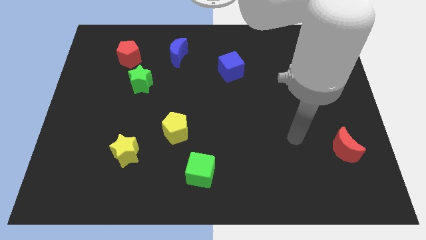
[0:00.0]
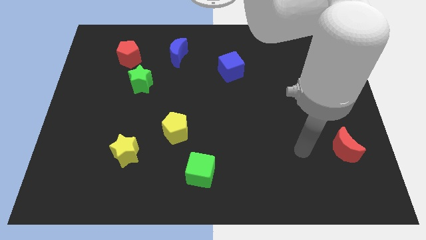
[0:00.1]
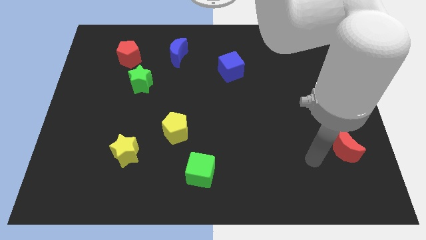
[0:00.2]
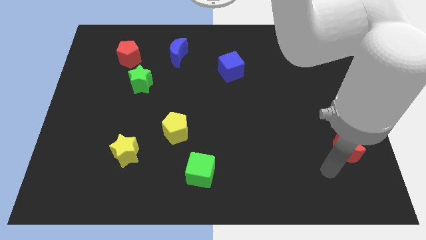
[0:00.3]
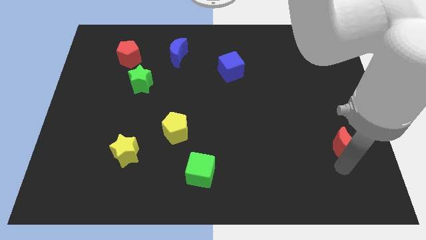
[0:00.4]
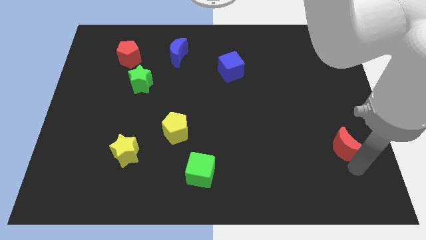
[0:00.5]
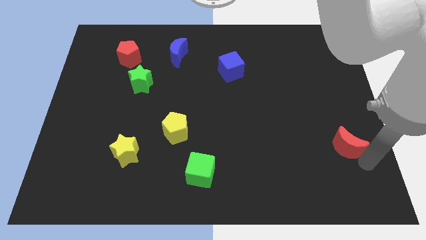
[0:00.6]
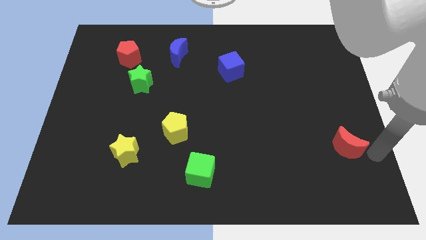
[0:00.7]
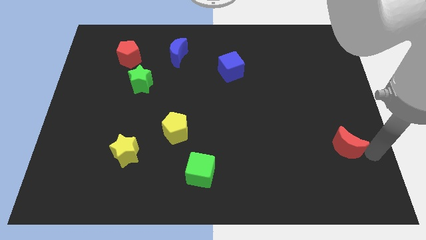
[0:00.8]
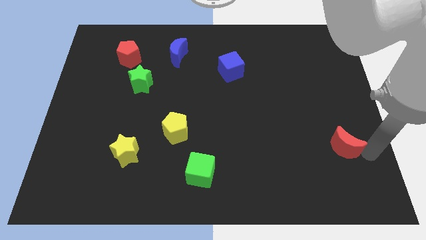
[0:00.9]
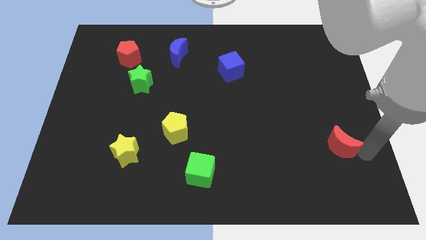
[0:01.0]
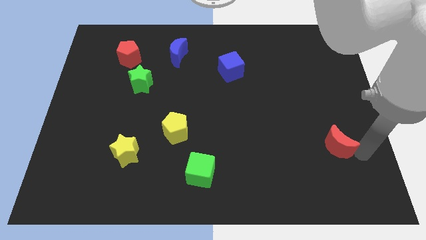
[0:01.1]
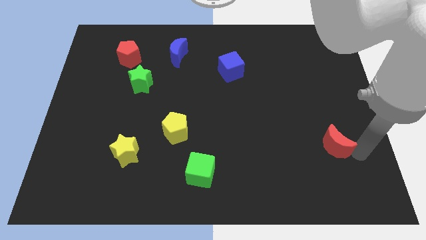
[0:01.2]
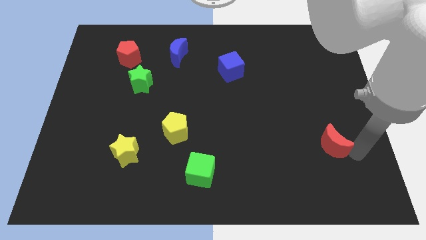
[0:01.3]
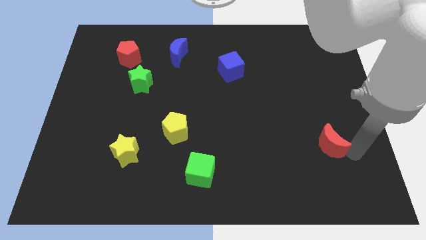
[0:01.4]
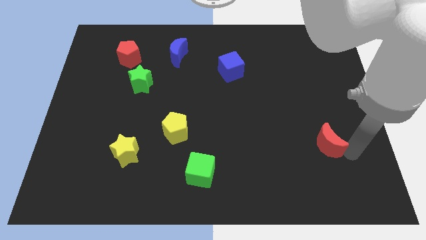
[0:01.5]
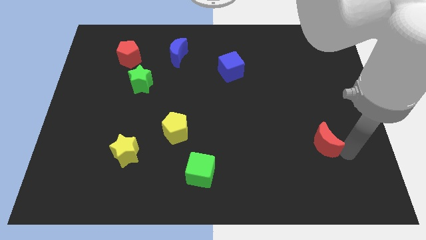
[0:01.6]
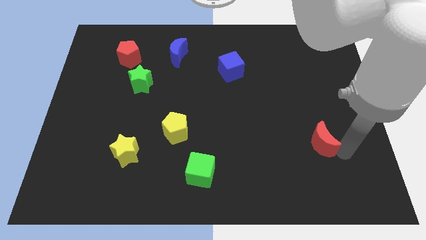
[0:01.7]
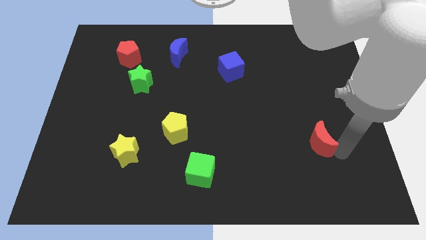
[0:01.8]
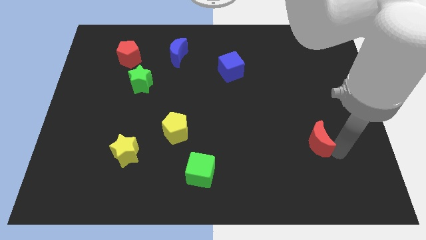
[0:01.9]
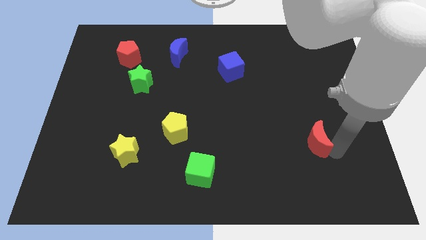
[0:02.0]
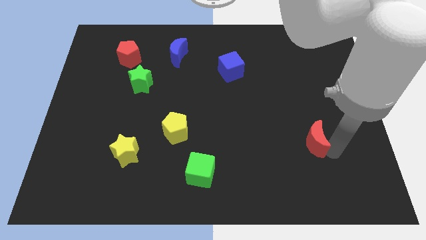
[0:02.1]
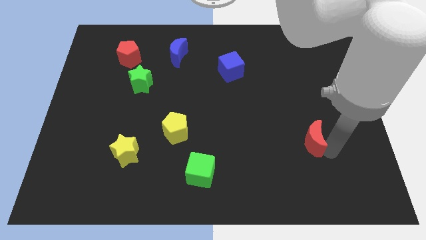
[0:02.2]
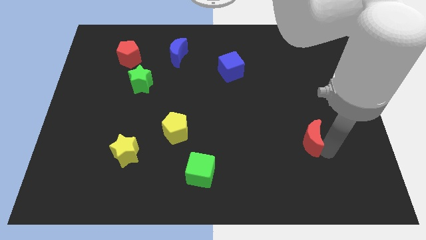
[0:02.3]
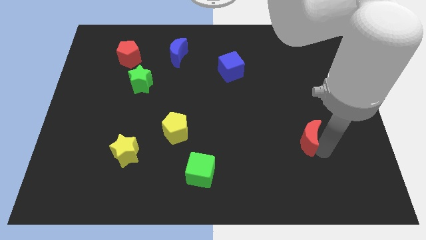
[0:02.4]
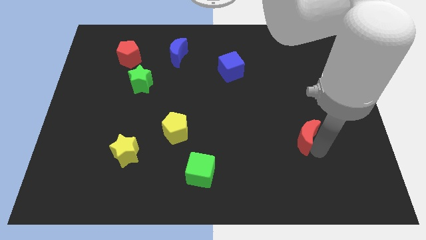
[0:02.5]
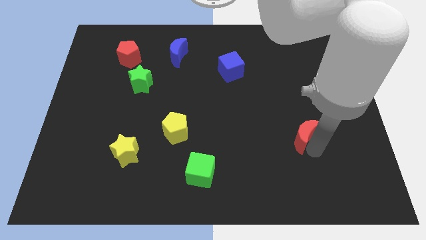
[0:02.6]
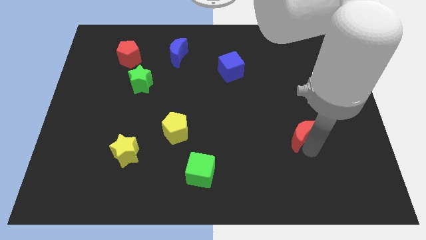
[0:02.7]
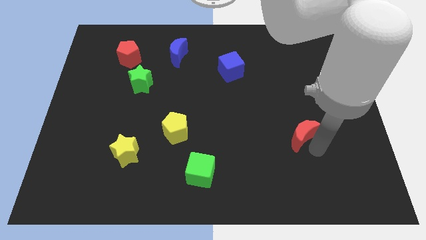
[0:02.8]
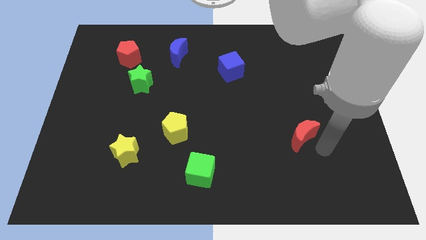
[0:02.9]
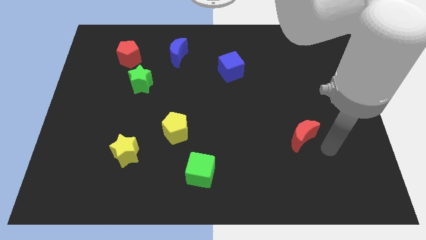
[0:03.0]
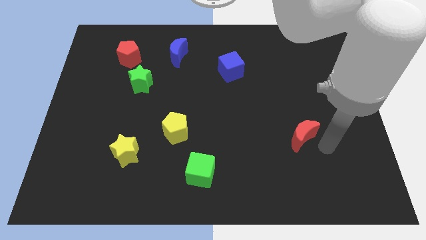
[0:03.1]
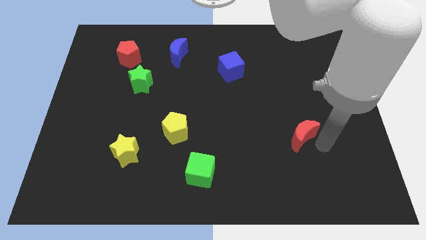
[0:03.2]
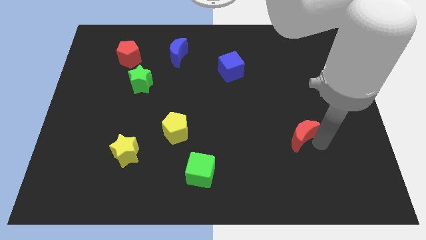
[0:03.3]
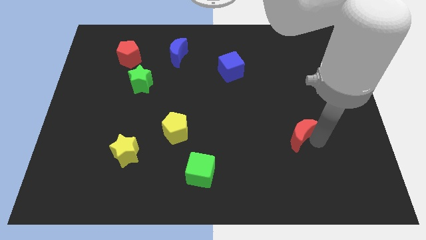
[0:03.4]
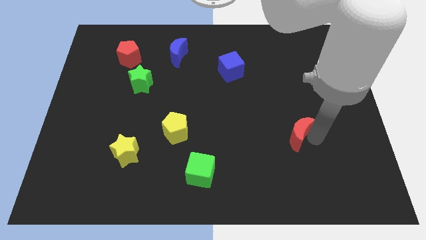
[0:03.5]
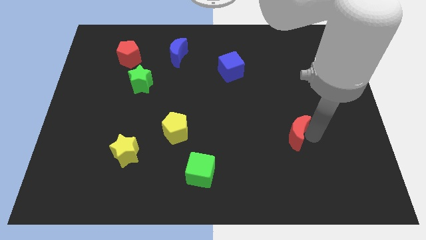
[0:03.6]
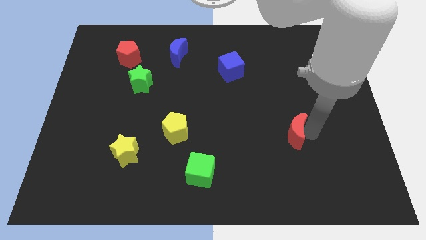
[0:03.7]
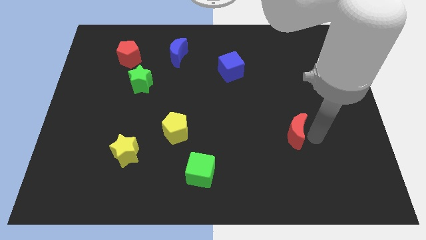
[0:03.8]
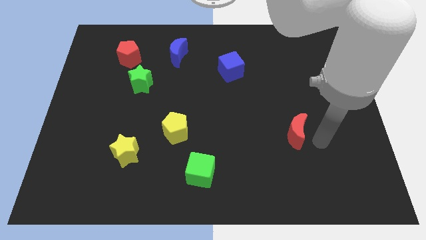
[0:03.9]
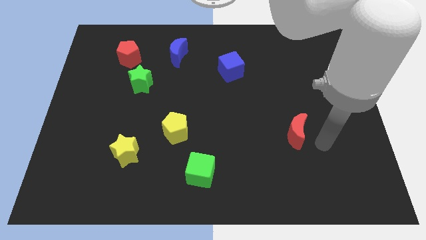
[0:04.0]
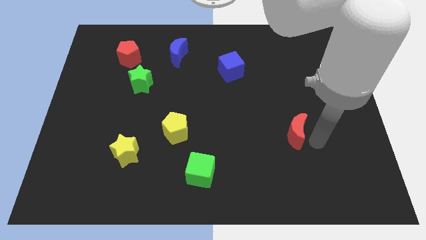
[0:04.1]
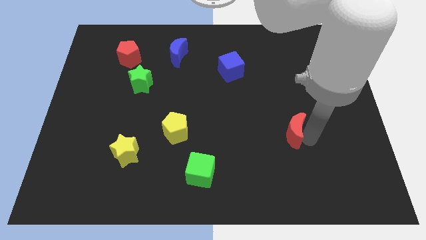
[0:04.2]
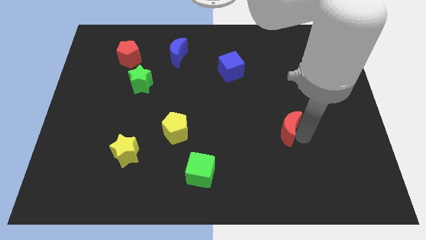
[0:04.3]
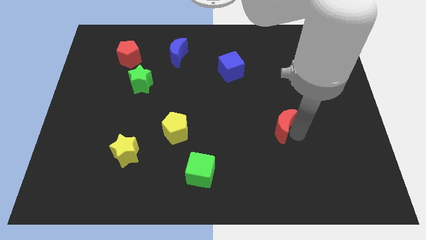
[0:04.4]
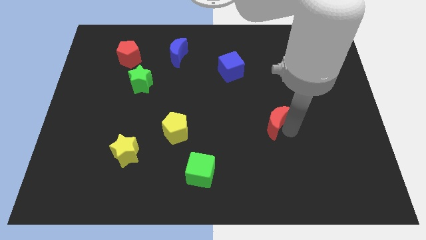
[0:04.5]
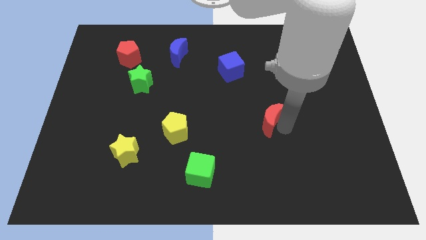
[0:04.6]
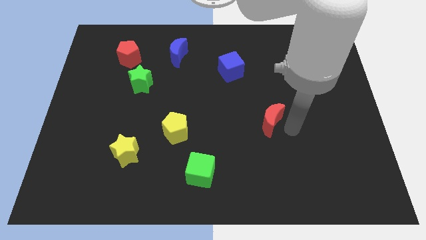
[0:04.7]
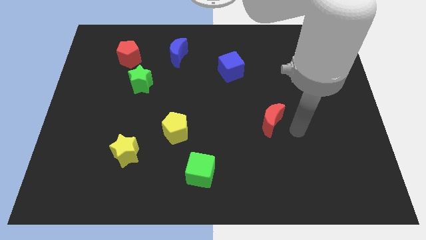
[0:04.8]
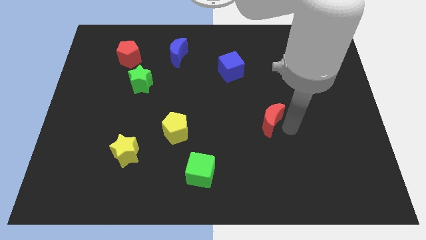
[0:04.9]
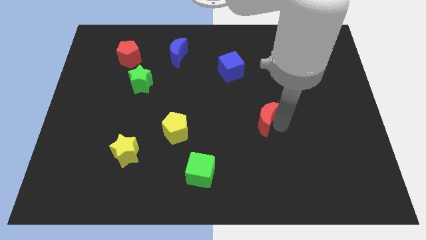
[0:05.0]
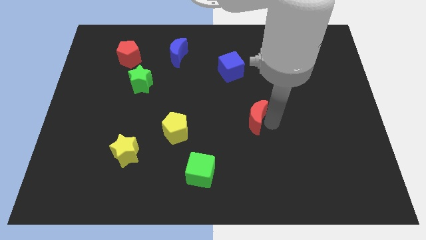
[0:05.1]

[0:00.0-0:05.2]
push the red moon to the middle of the board

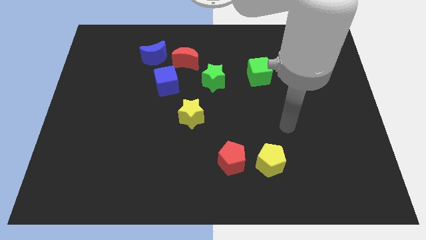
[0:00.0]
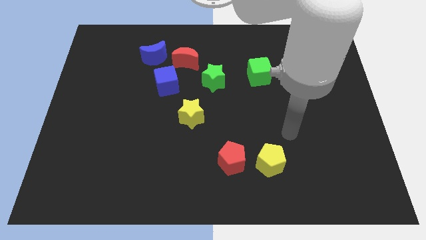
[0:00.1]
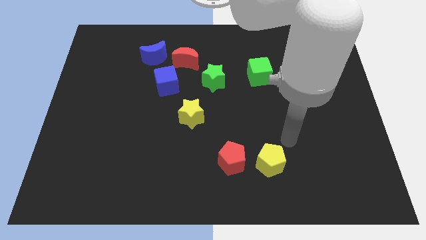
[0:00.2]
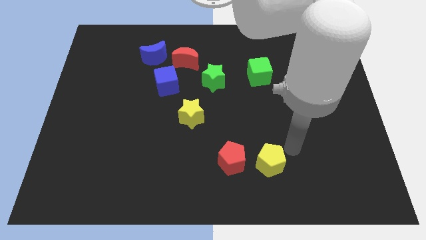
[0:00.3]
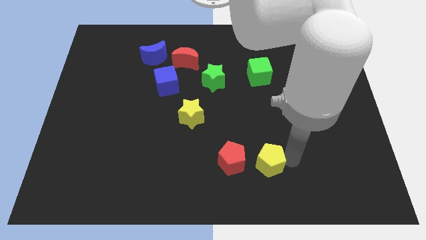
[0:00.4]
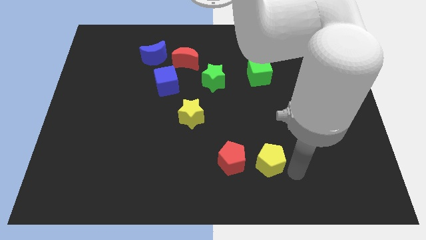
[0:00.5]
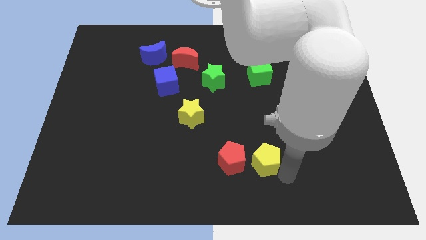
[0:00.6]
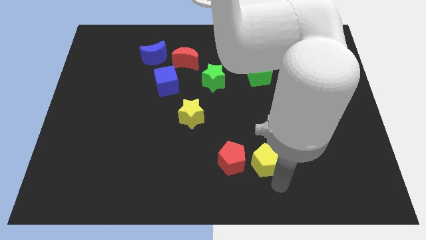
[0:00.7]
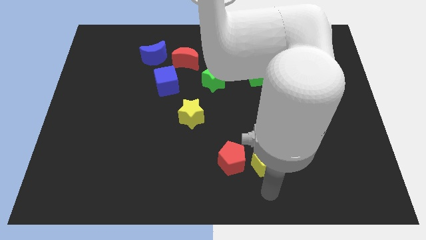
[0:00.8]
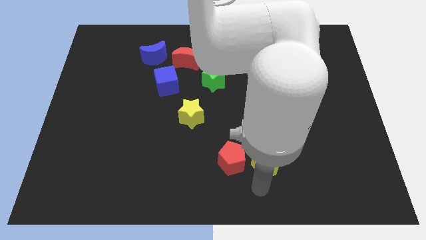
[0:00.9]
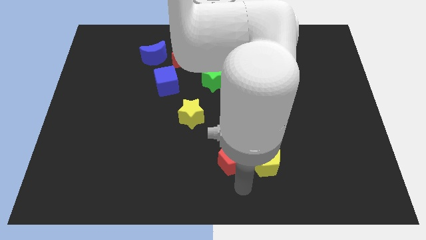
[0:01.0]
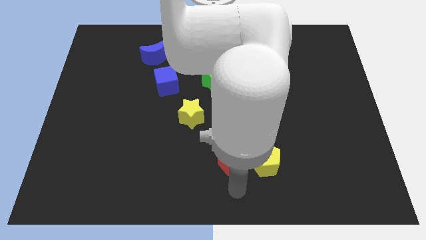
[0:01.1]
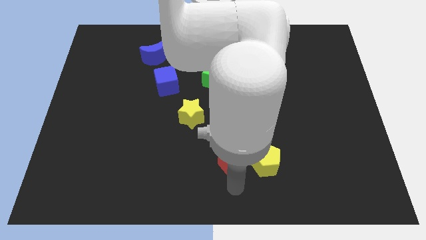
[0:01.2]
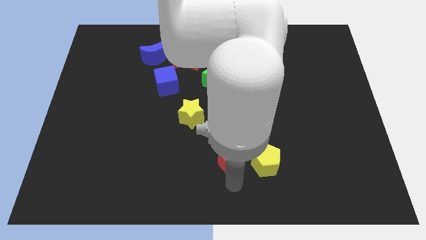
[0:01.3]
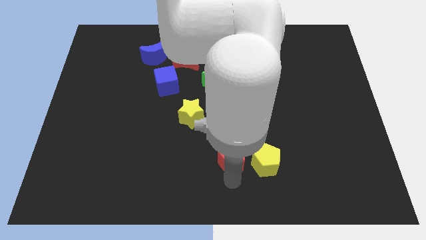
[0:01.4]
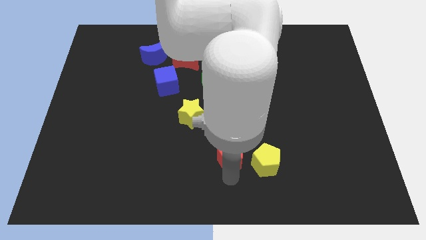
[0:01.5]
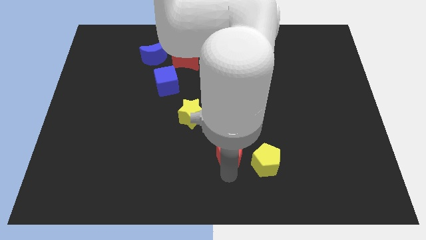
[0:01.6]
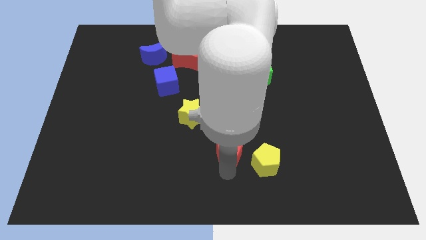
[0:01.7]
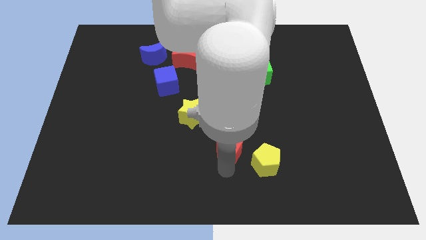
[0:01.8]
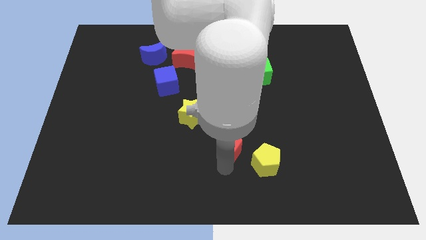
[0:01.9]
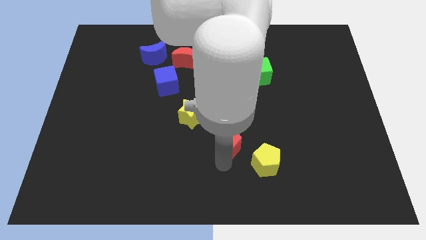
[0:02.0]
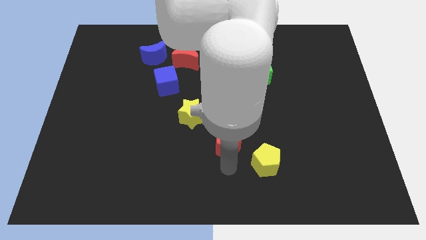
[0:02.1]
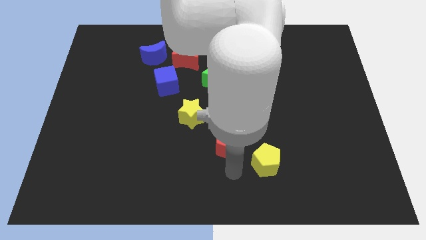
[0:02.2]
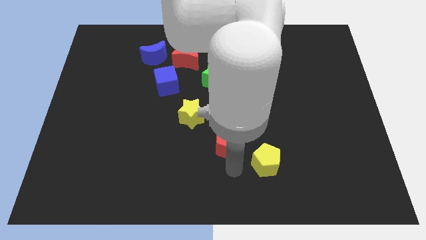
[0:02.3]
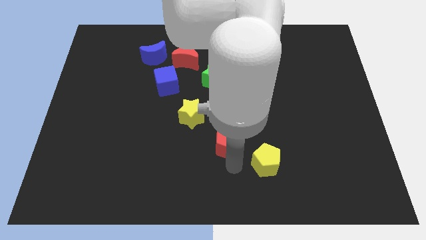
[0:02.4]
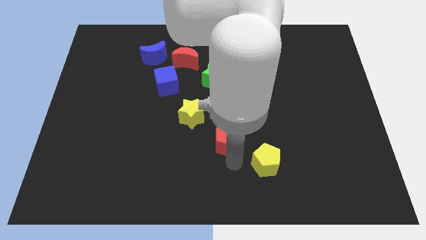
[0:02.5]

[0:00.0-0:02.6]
put the red pentagon to the center

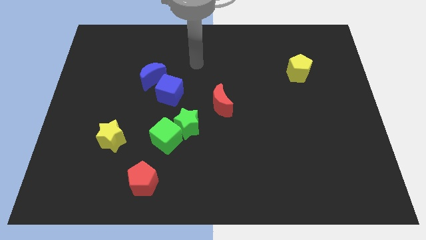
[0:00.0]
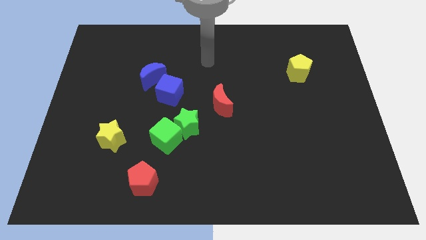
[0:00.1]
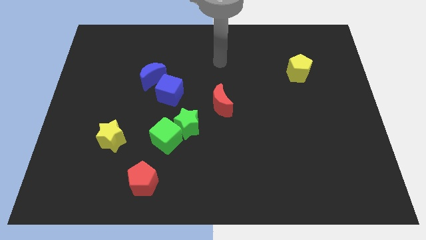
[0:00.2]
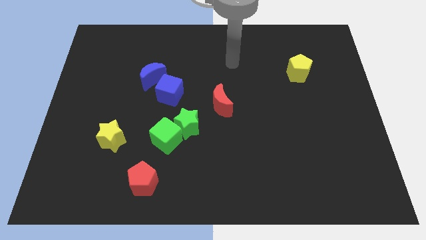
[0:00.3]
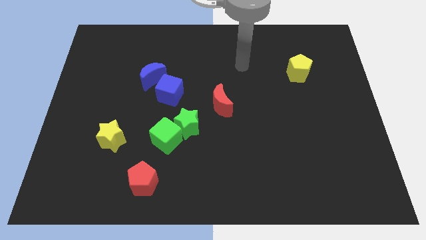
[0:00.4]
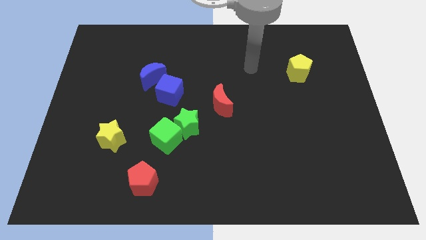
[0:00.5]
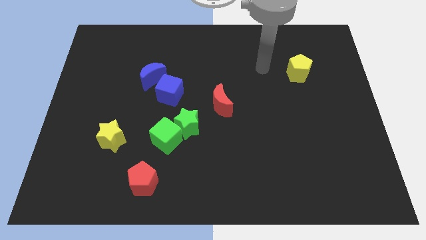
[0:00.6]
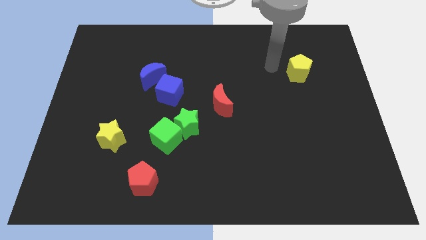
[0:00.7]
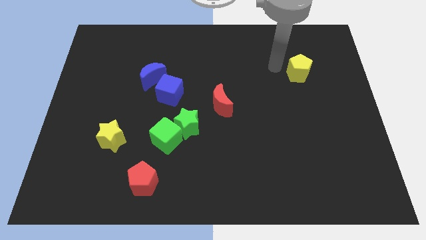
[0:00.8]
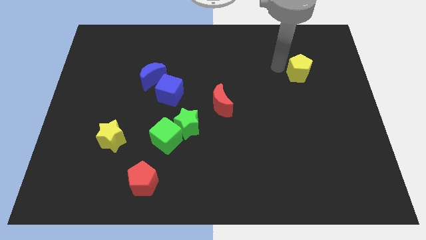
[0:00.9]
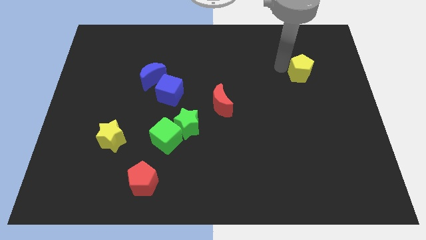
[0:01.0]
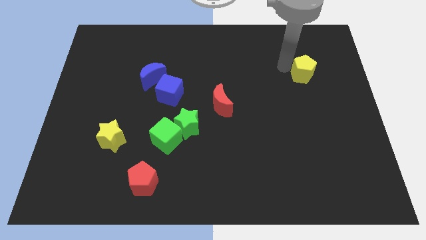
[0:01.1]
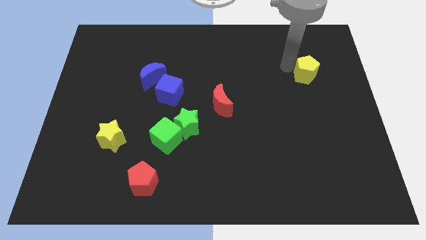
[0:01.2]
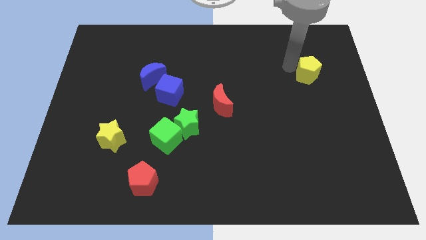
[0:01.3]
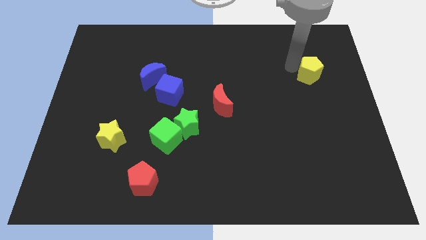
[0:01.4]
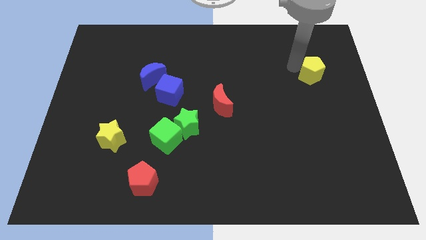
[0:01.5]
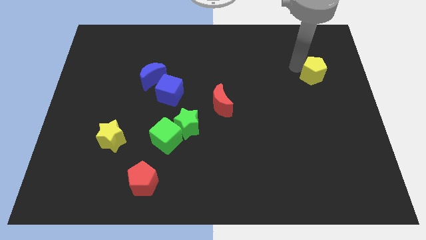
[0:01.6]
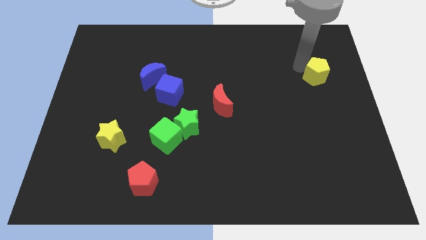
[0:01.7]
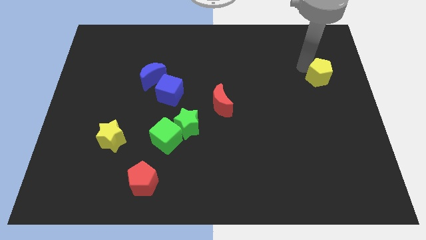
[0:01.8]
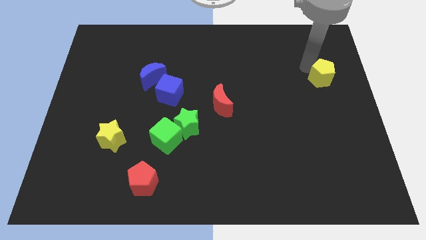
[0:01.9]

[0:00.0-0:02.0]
push the yellow pentagon to the right side of the board
